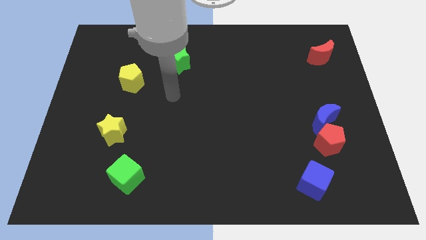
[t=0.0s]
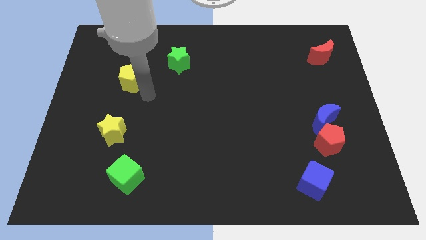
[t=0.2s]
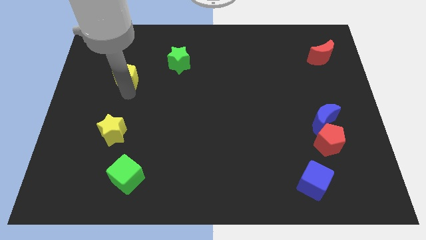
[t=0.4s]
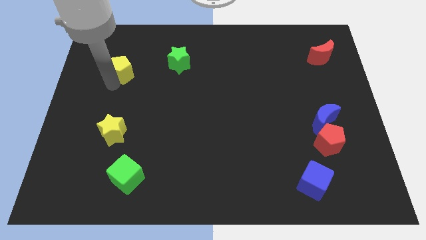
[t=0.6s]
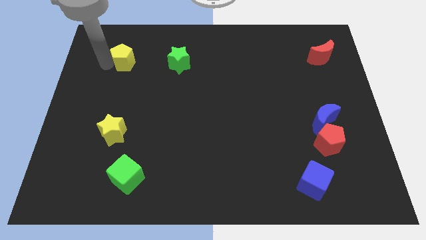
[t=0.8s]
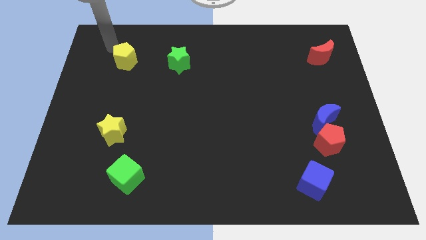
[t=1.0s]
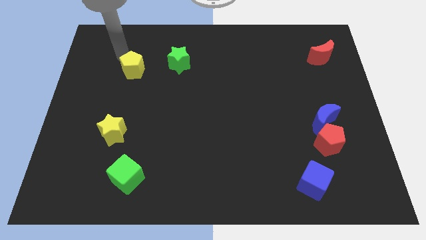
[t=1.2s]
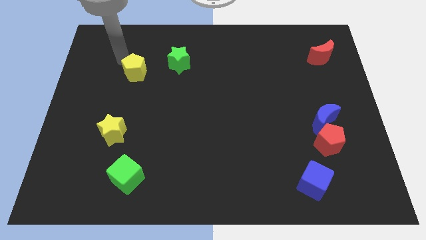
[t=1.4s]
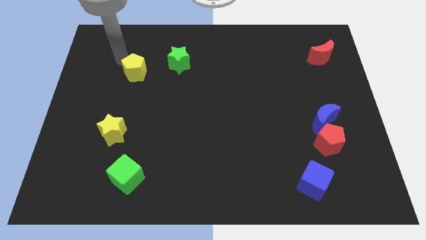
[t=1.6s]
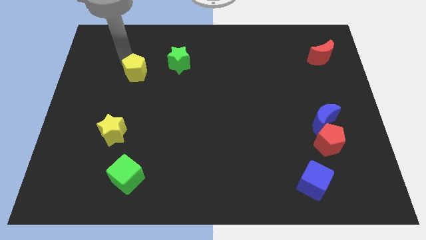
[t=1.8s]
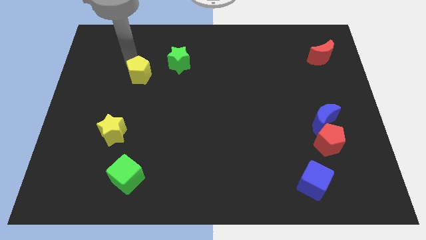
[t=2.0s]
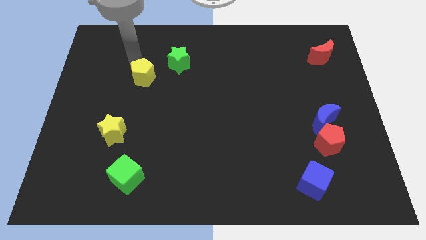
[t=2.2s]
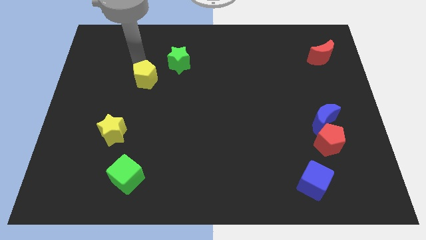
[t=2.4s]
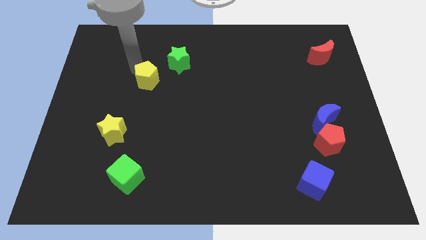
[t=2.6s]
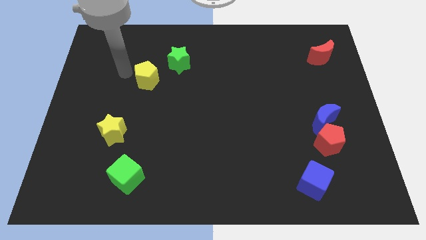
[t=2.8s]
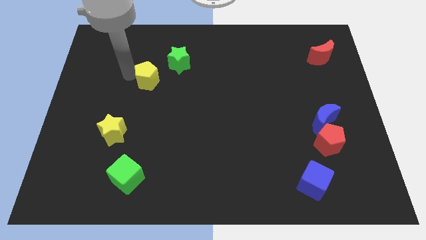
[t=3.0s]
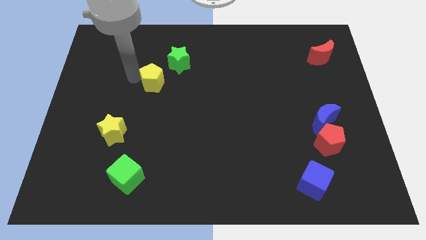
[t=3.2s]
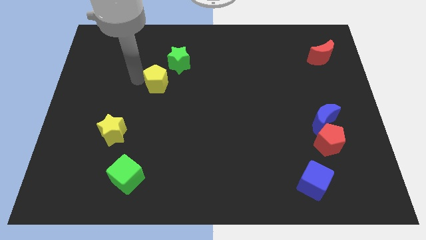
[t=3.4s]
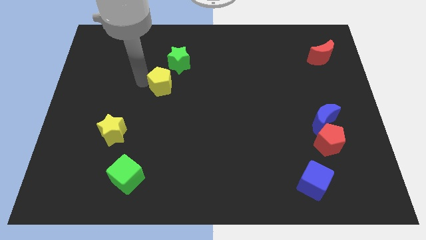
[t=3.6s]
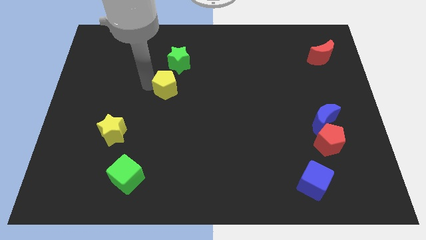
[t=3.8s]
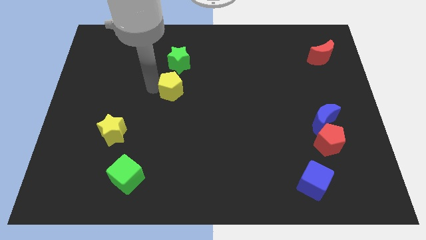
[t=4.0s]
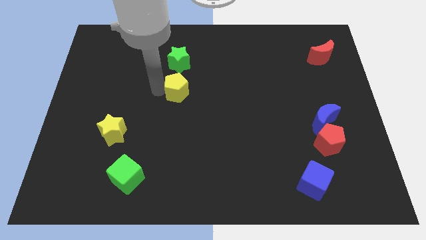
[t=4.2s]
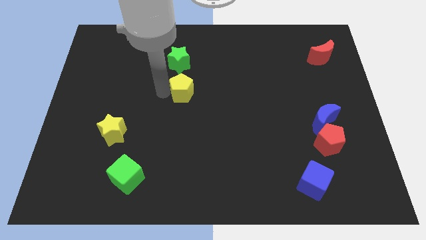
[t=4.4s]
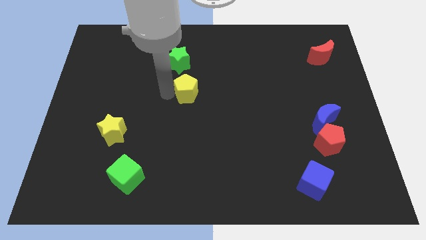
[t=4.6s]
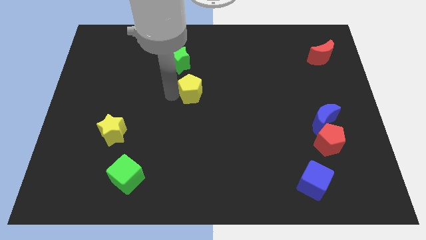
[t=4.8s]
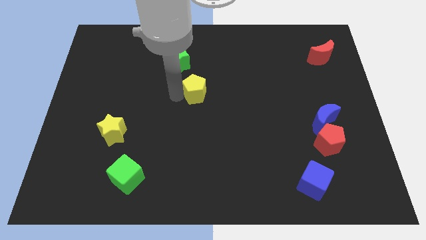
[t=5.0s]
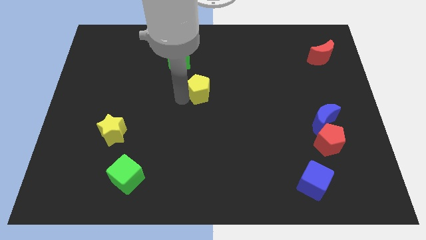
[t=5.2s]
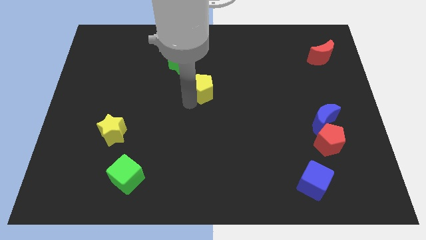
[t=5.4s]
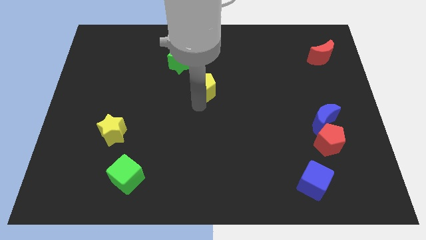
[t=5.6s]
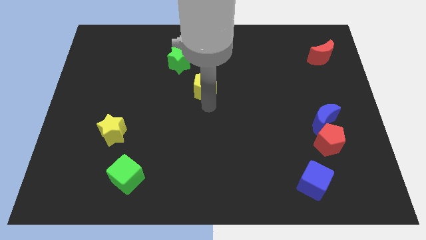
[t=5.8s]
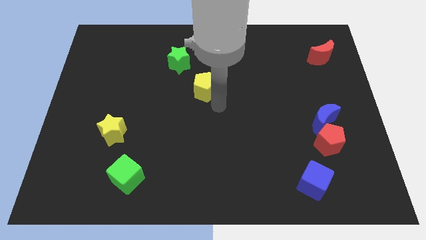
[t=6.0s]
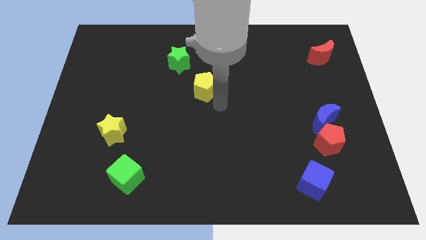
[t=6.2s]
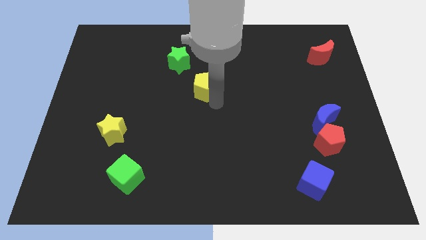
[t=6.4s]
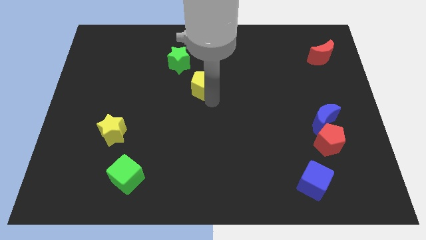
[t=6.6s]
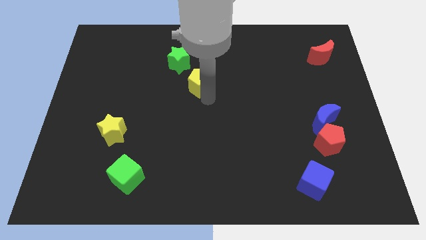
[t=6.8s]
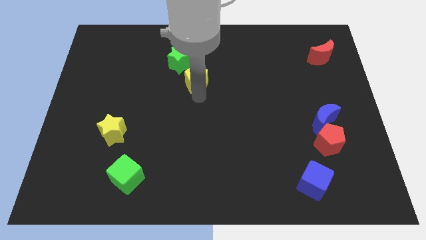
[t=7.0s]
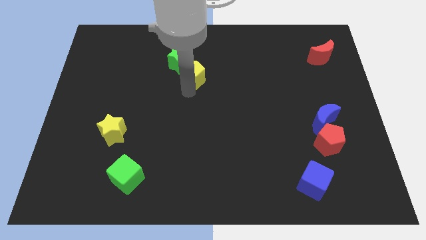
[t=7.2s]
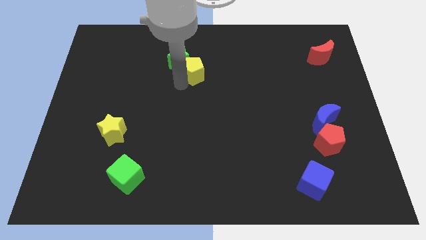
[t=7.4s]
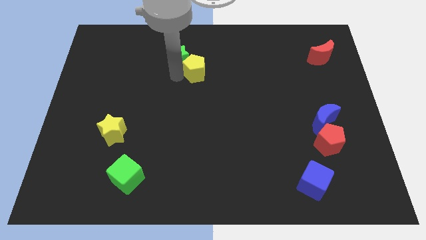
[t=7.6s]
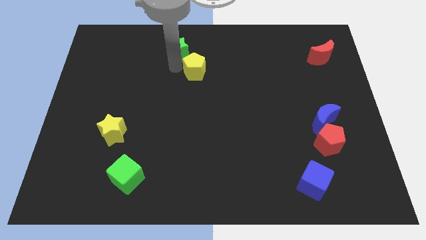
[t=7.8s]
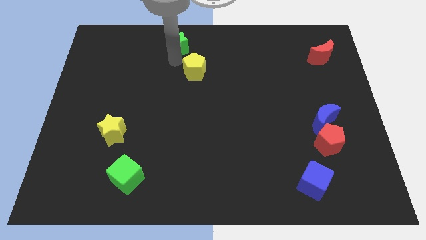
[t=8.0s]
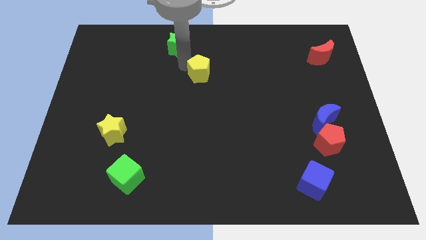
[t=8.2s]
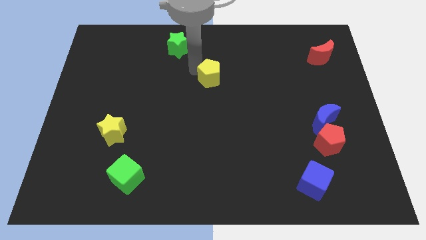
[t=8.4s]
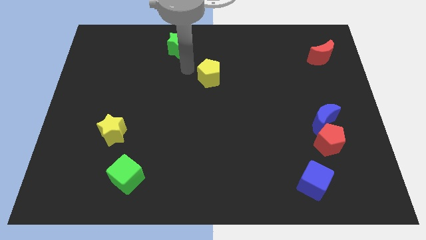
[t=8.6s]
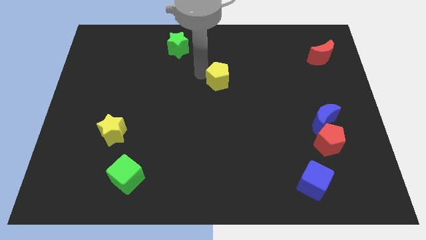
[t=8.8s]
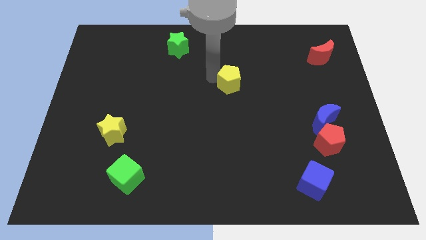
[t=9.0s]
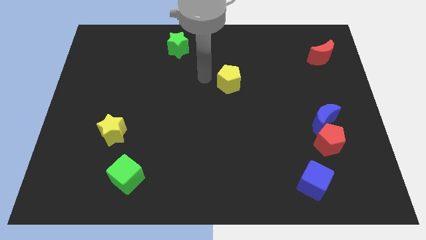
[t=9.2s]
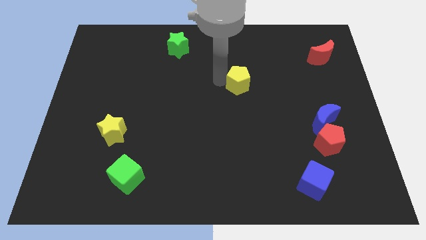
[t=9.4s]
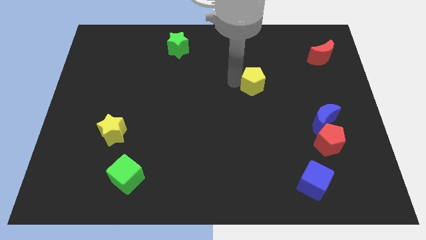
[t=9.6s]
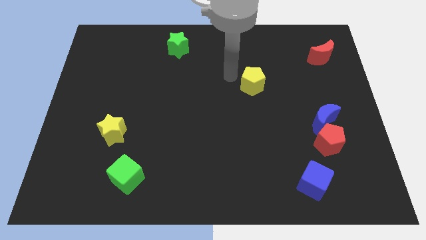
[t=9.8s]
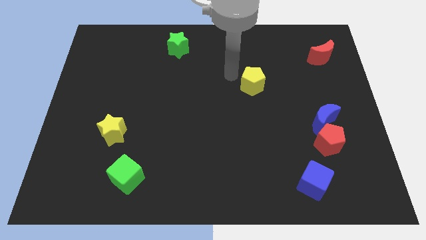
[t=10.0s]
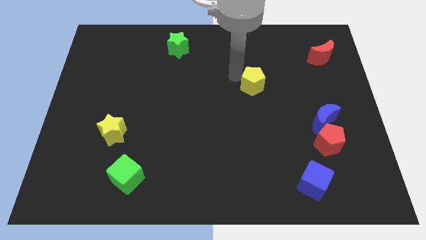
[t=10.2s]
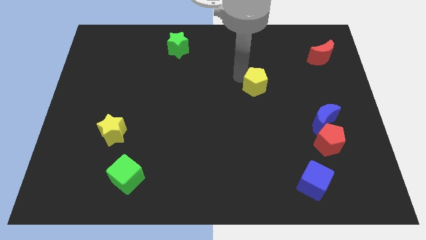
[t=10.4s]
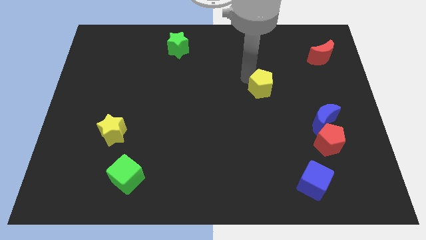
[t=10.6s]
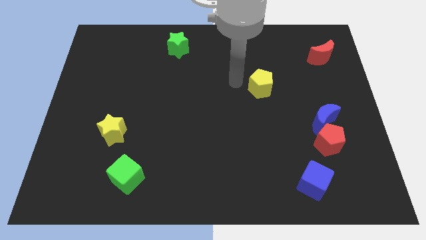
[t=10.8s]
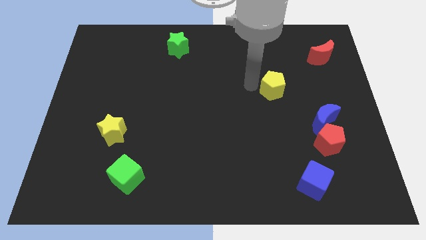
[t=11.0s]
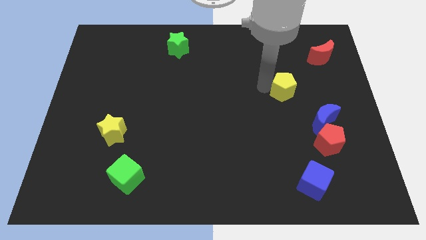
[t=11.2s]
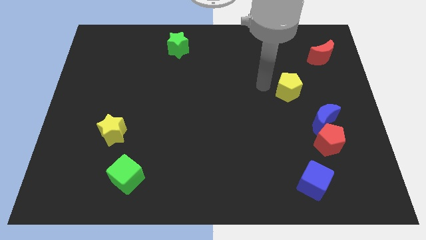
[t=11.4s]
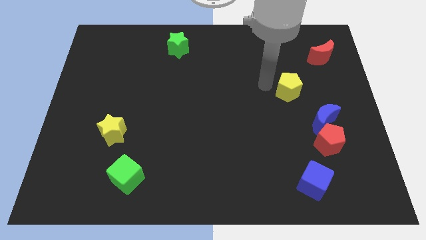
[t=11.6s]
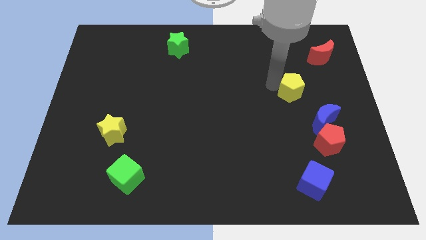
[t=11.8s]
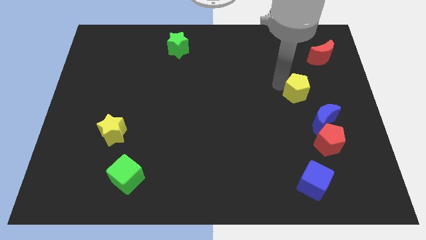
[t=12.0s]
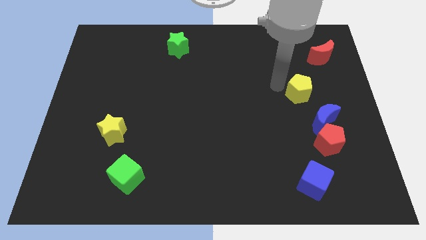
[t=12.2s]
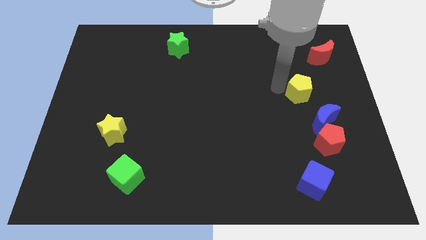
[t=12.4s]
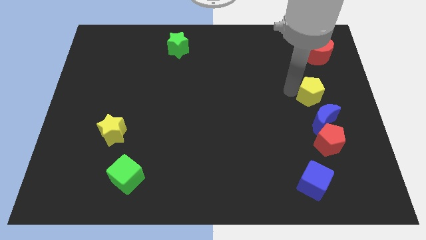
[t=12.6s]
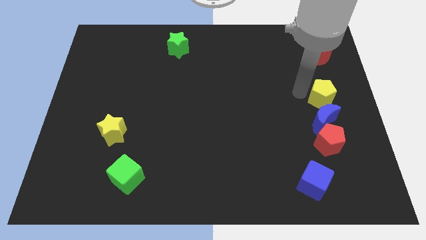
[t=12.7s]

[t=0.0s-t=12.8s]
push the yellow pentagon to the right side
